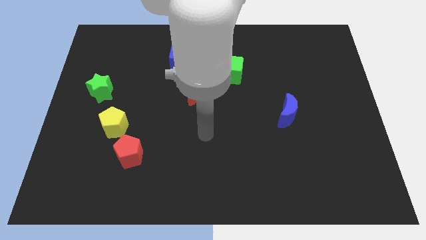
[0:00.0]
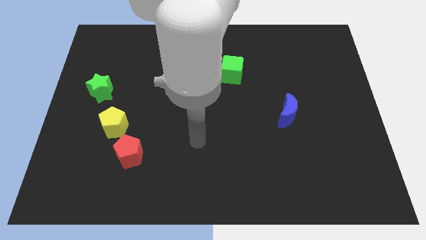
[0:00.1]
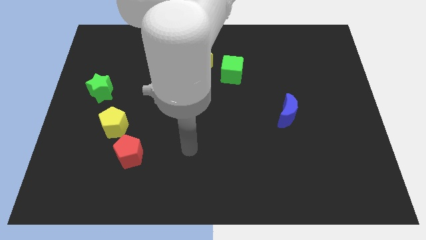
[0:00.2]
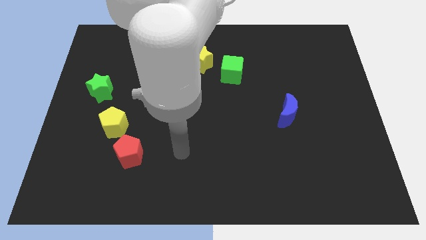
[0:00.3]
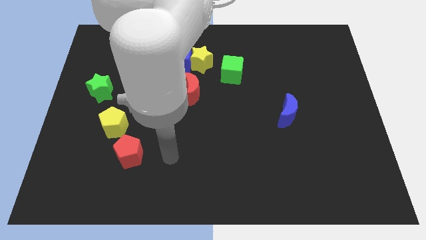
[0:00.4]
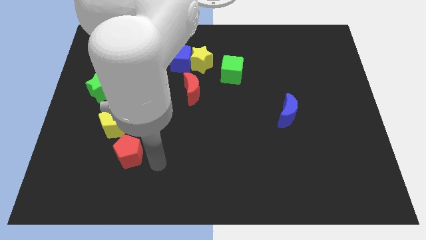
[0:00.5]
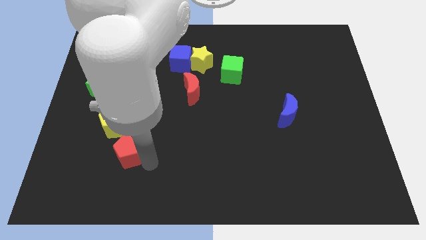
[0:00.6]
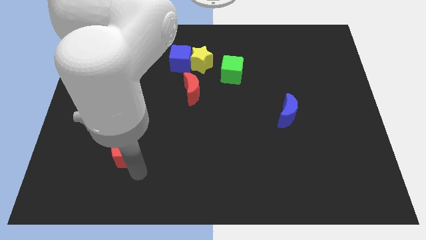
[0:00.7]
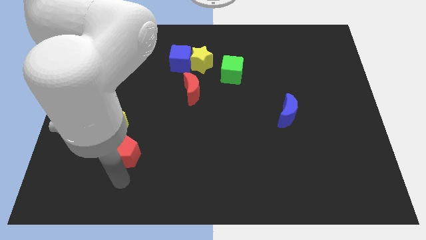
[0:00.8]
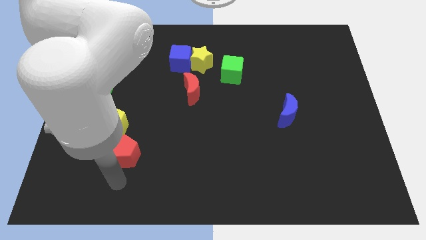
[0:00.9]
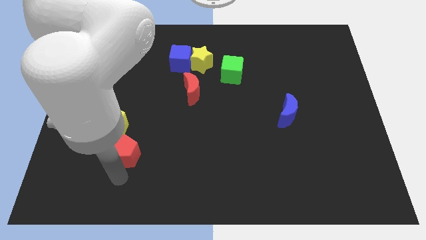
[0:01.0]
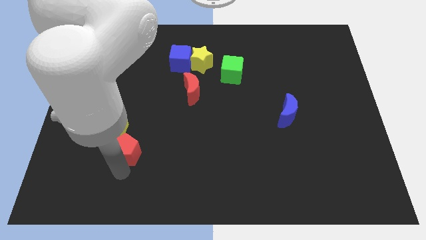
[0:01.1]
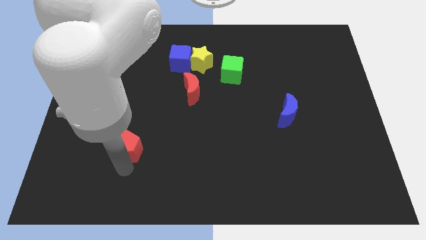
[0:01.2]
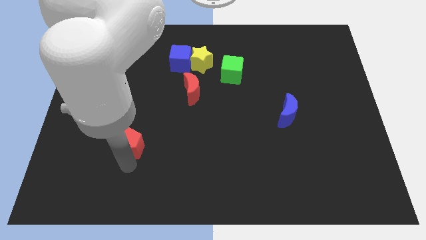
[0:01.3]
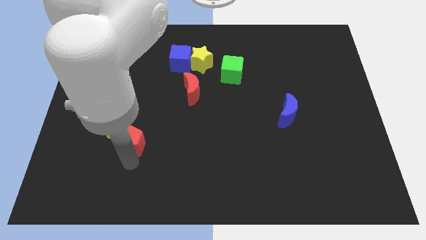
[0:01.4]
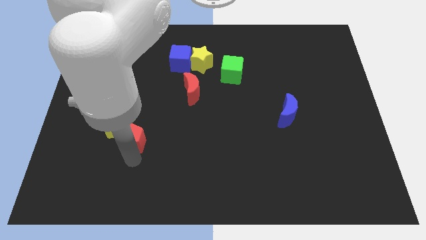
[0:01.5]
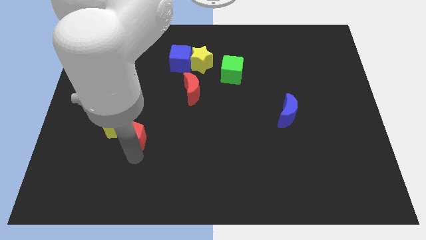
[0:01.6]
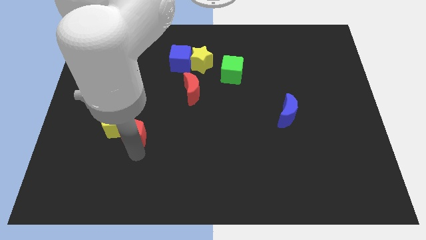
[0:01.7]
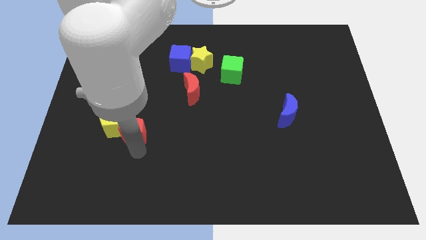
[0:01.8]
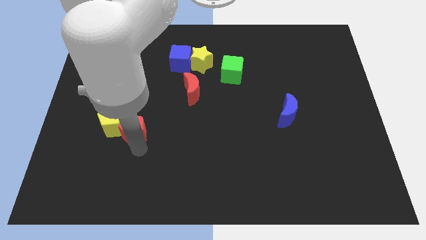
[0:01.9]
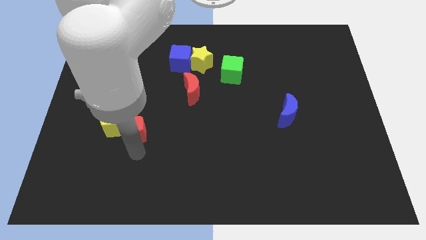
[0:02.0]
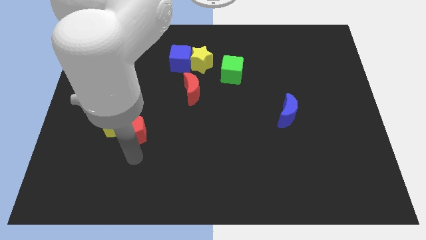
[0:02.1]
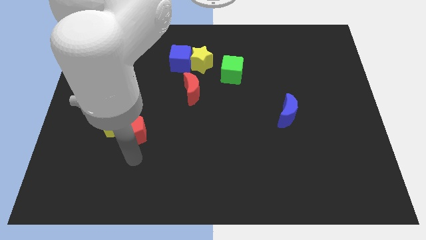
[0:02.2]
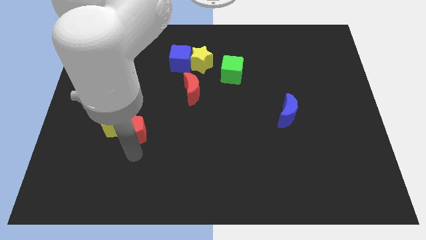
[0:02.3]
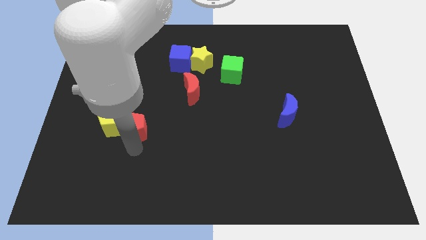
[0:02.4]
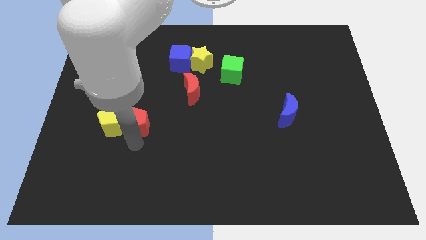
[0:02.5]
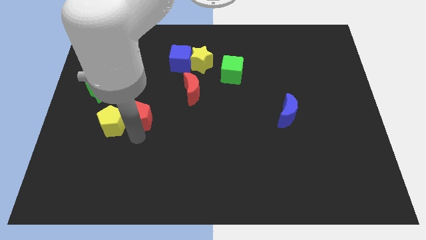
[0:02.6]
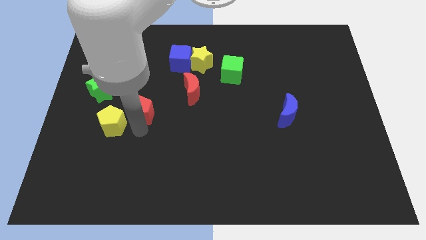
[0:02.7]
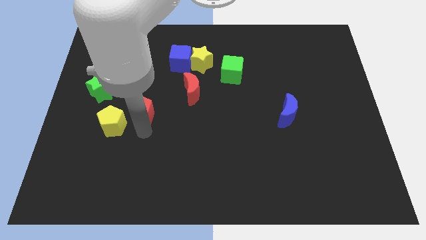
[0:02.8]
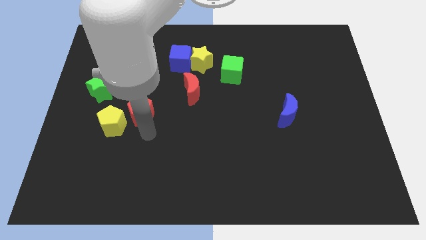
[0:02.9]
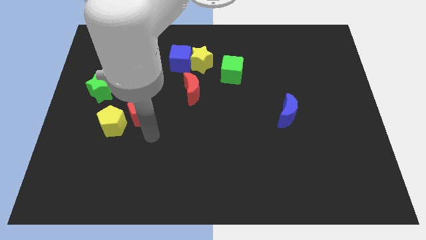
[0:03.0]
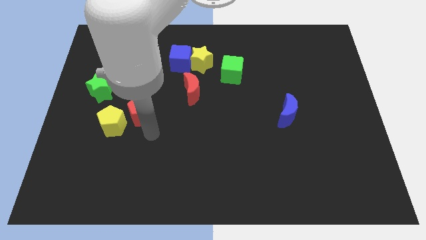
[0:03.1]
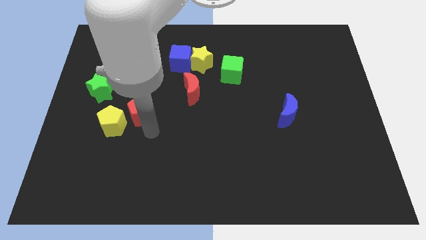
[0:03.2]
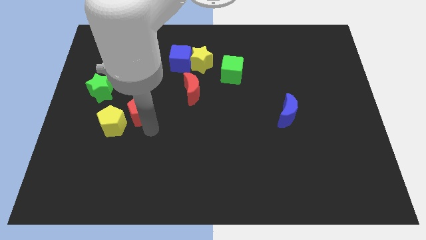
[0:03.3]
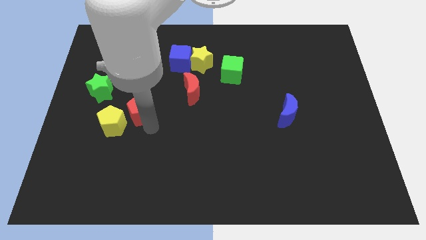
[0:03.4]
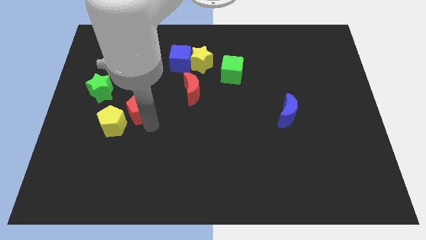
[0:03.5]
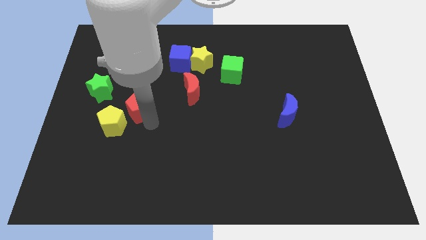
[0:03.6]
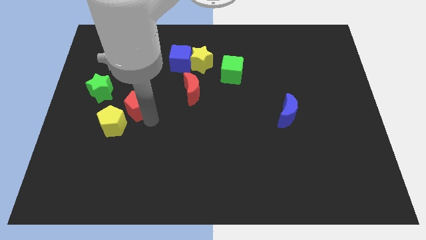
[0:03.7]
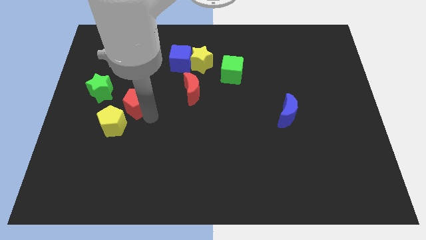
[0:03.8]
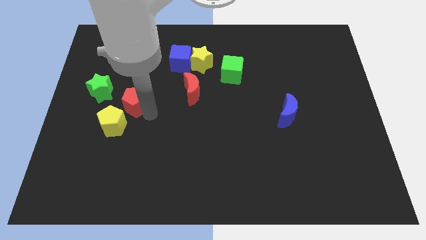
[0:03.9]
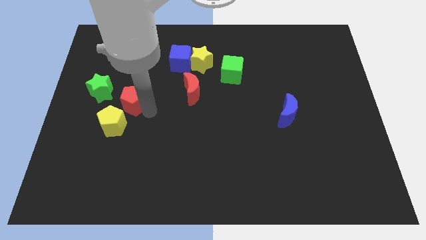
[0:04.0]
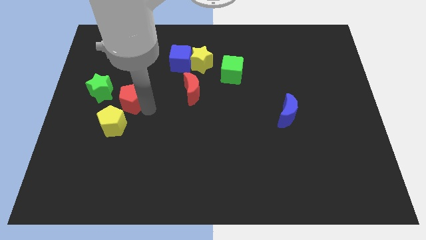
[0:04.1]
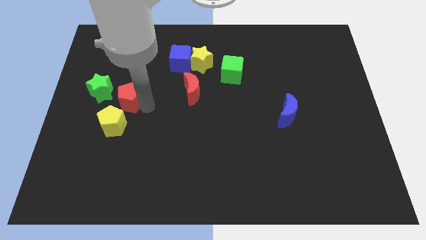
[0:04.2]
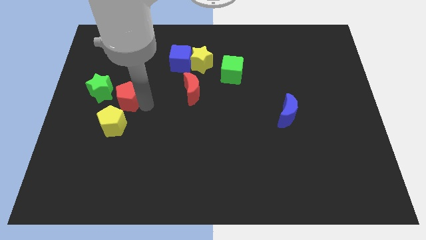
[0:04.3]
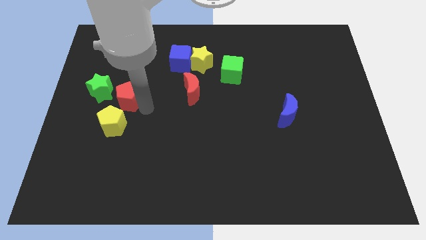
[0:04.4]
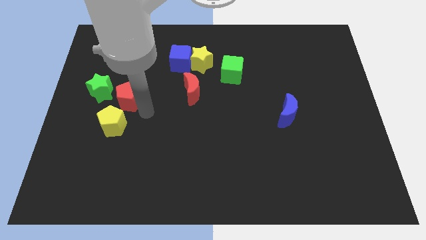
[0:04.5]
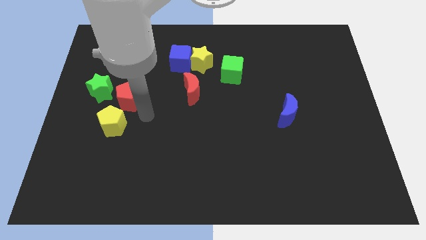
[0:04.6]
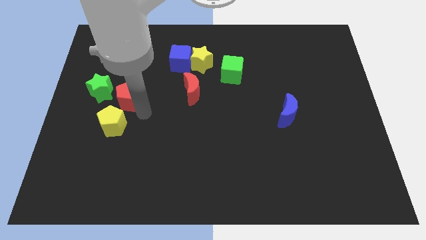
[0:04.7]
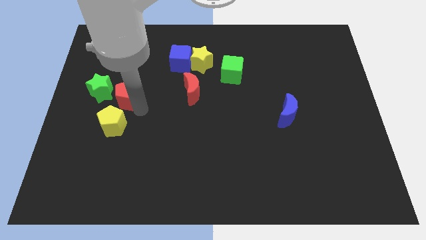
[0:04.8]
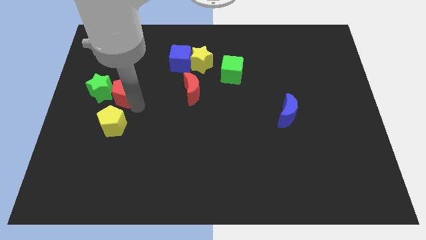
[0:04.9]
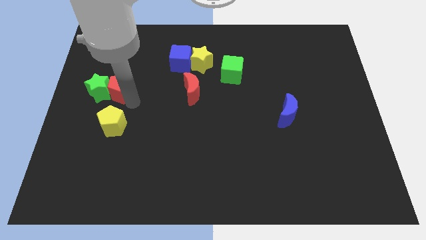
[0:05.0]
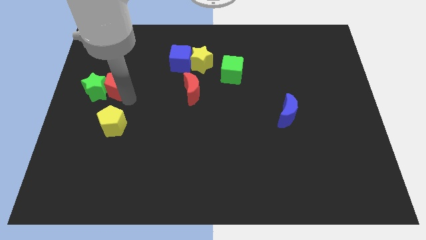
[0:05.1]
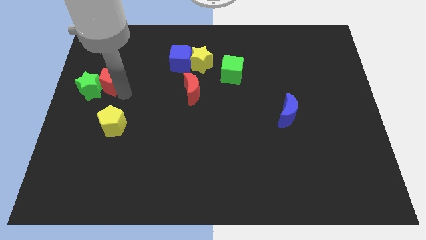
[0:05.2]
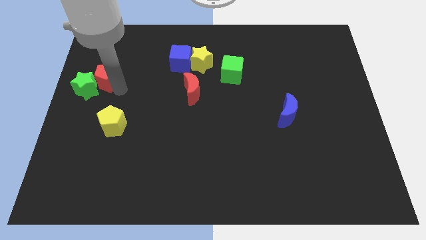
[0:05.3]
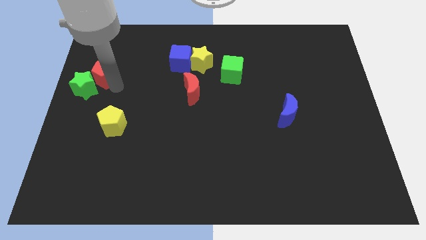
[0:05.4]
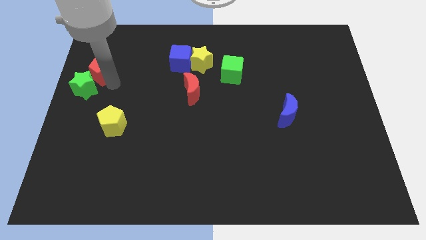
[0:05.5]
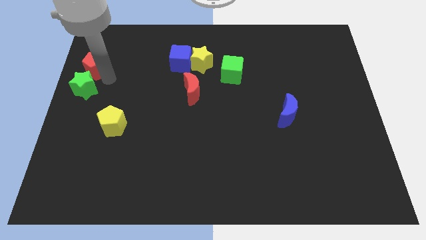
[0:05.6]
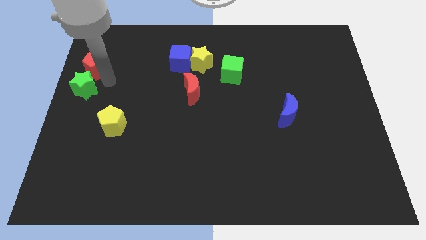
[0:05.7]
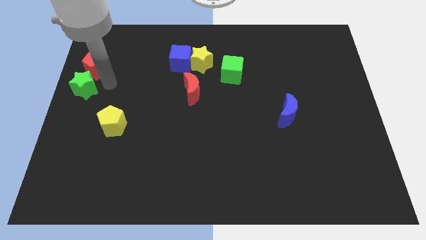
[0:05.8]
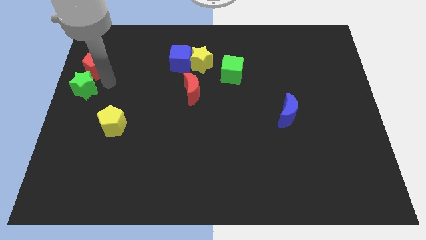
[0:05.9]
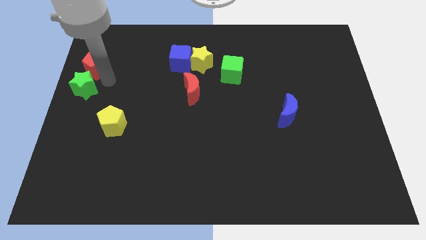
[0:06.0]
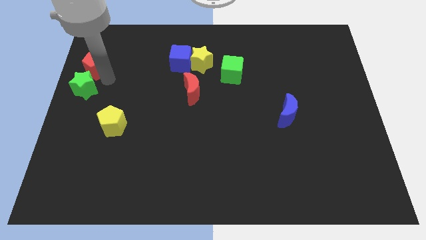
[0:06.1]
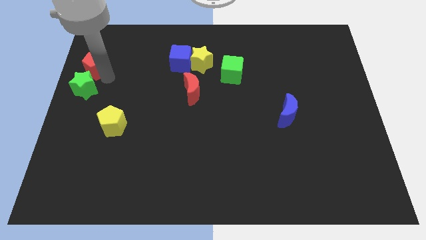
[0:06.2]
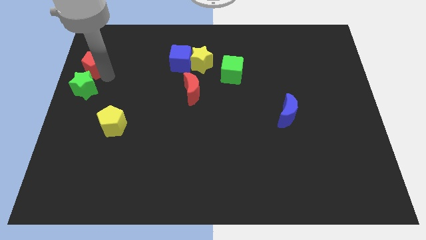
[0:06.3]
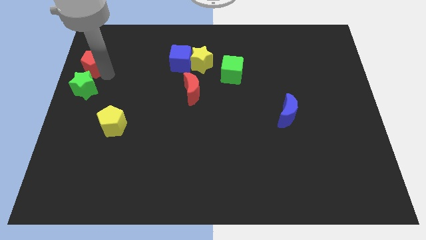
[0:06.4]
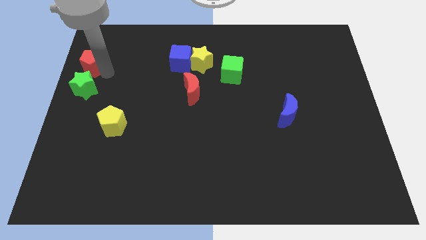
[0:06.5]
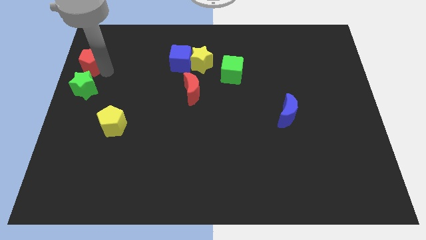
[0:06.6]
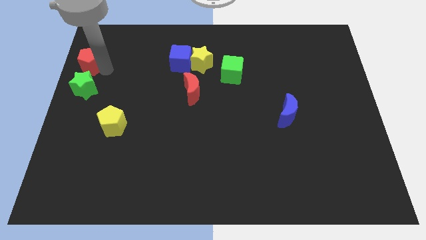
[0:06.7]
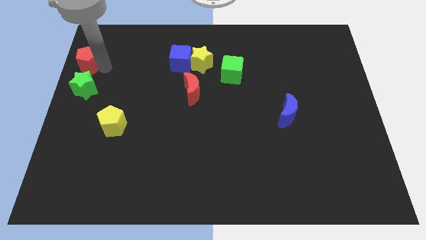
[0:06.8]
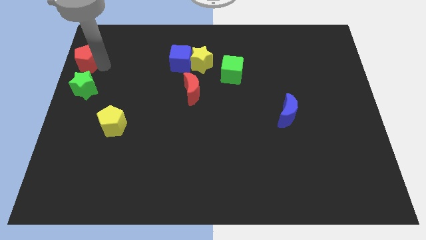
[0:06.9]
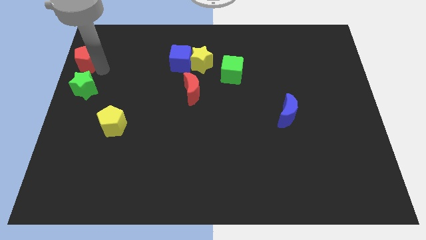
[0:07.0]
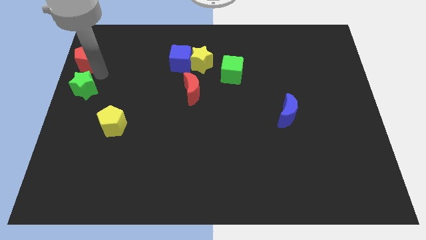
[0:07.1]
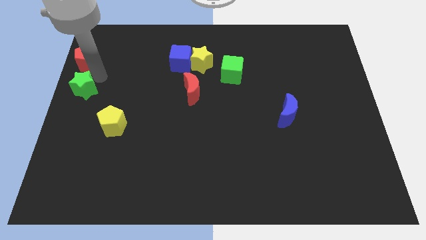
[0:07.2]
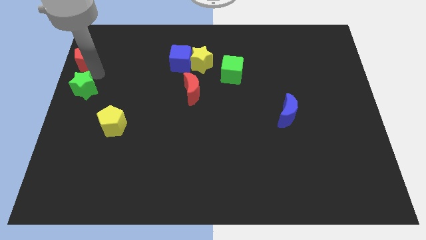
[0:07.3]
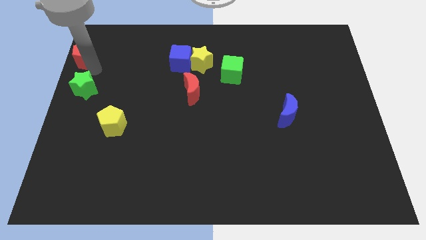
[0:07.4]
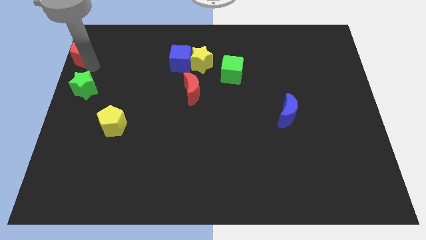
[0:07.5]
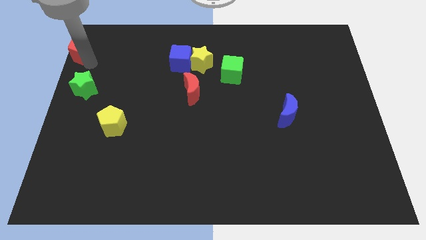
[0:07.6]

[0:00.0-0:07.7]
push the red pentagon to the top left
